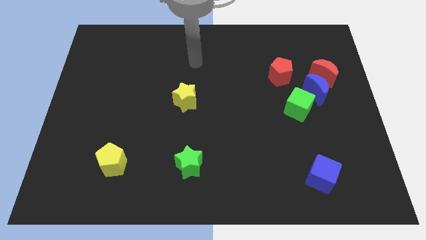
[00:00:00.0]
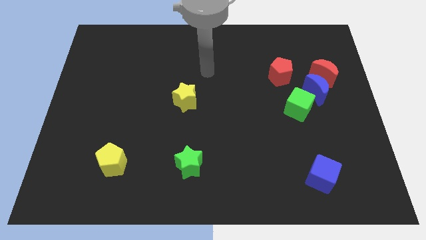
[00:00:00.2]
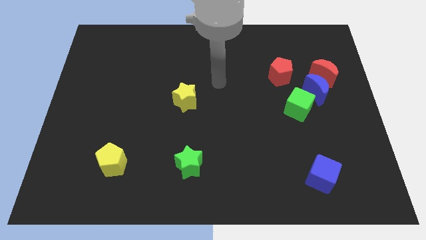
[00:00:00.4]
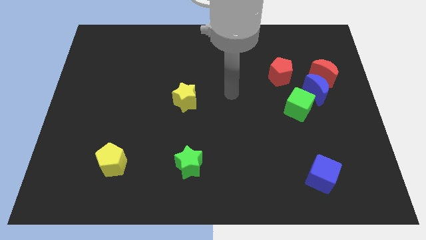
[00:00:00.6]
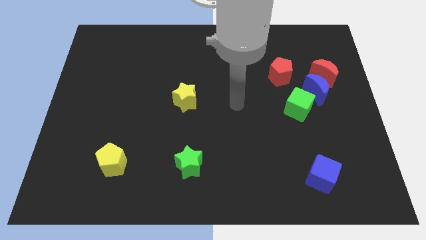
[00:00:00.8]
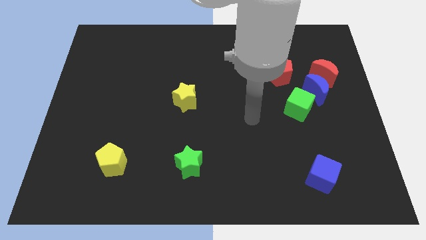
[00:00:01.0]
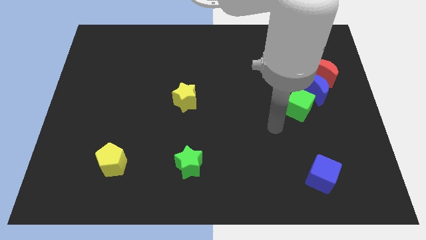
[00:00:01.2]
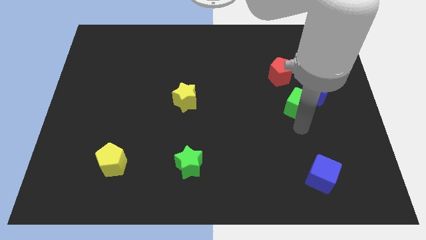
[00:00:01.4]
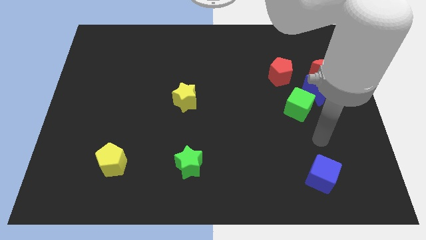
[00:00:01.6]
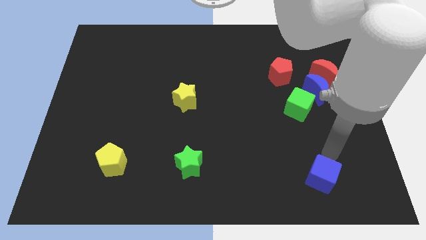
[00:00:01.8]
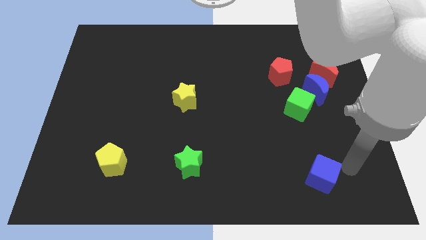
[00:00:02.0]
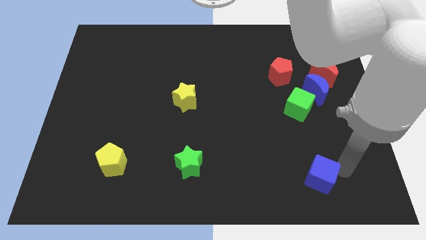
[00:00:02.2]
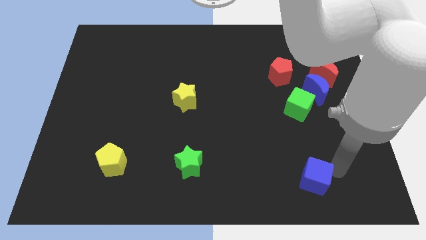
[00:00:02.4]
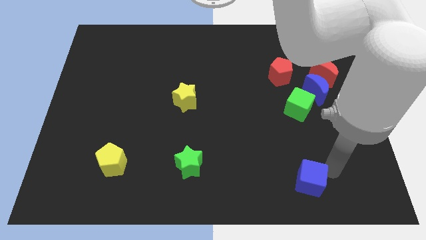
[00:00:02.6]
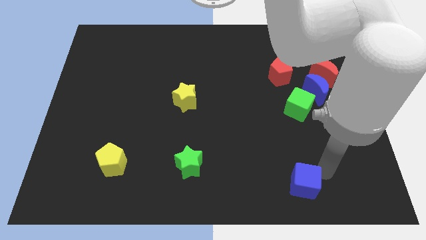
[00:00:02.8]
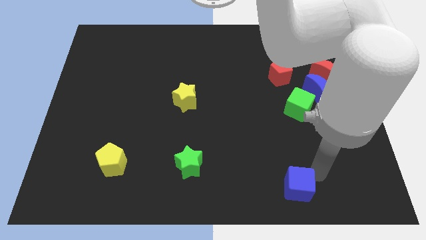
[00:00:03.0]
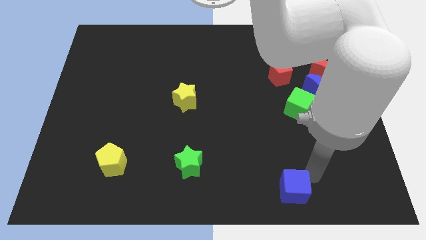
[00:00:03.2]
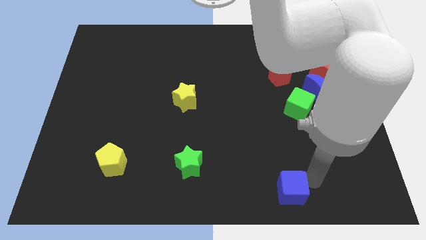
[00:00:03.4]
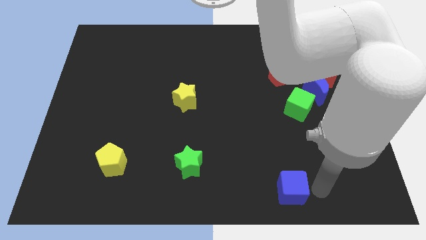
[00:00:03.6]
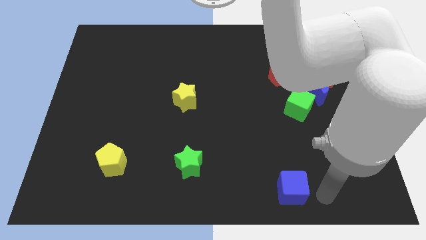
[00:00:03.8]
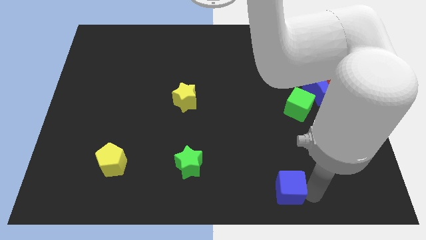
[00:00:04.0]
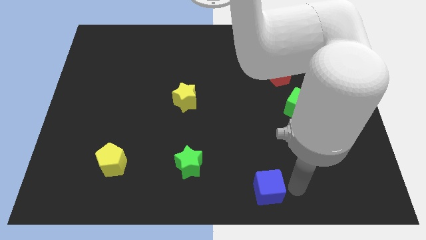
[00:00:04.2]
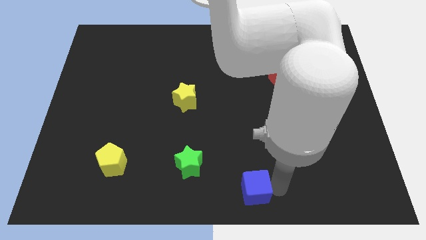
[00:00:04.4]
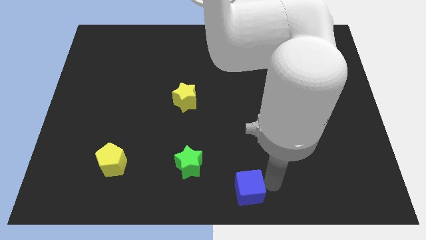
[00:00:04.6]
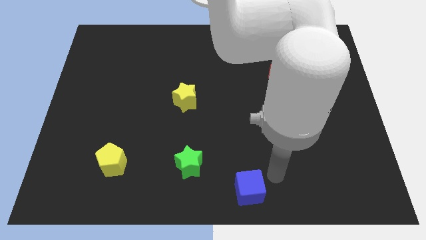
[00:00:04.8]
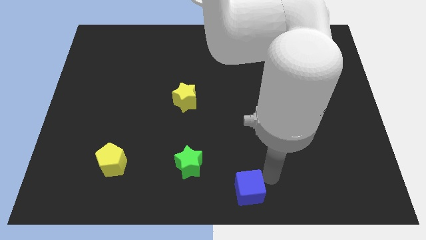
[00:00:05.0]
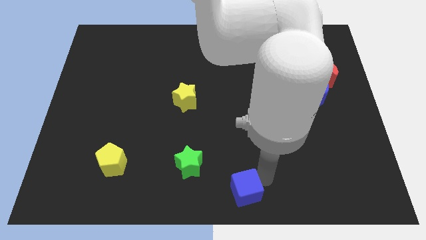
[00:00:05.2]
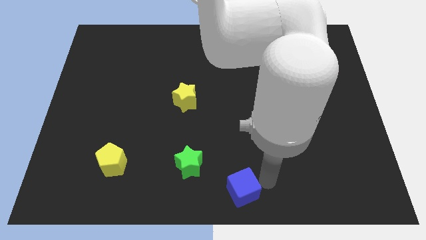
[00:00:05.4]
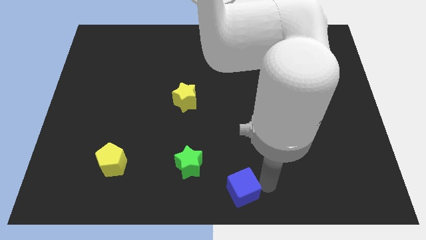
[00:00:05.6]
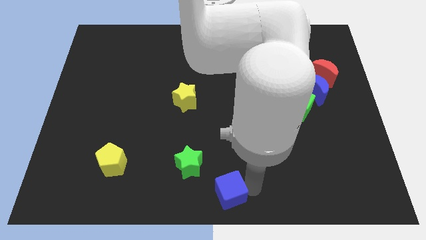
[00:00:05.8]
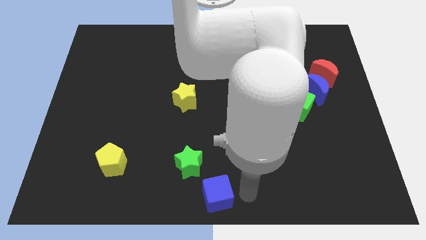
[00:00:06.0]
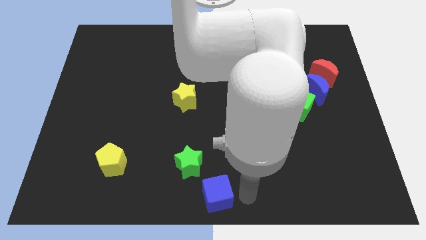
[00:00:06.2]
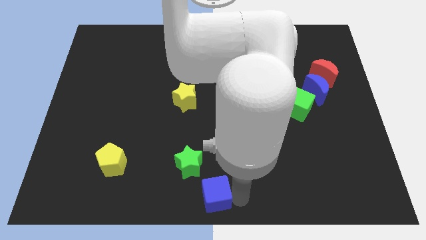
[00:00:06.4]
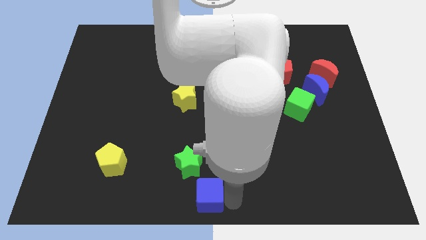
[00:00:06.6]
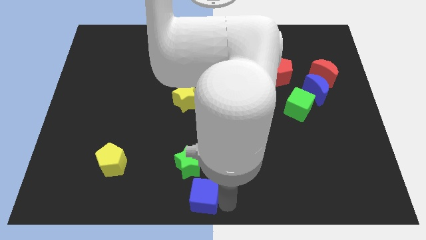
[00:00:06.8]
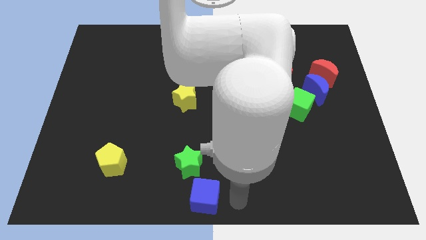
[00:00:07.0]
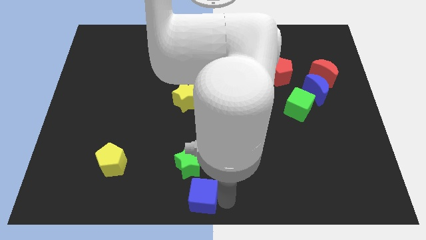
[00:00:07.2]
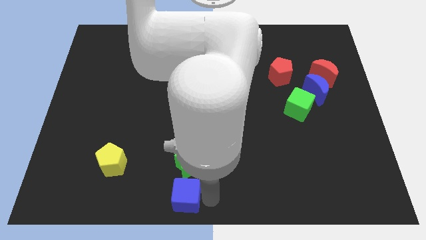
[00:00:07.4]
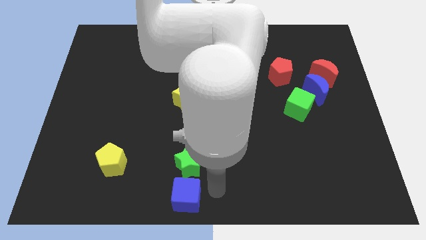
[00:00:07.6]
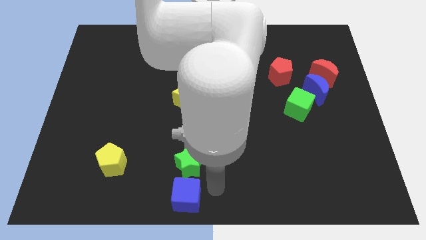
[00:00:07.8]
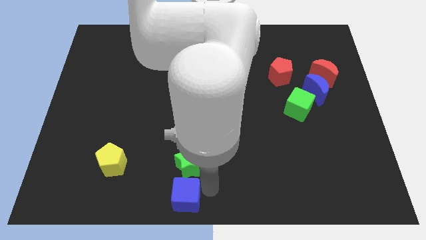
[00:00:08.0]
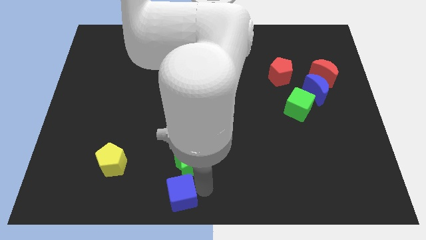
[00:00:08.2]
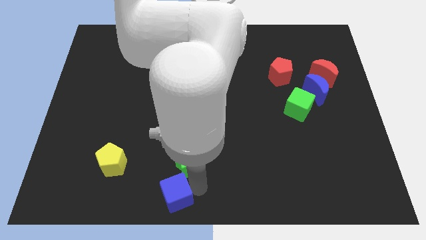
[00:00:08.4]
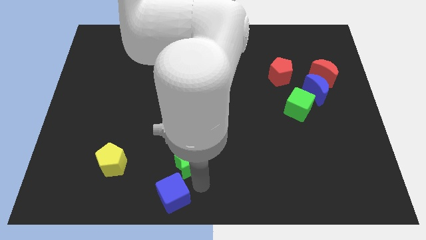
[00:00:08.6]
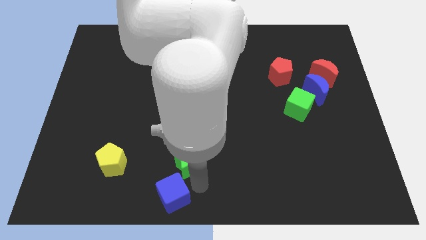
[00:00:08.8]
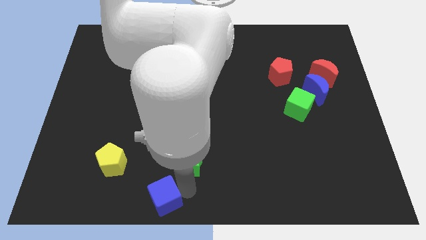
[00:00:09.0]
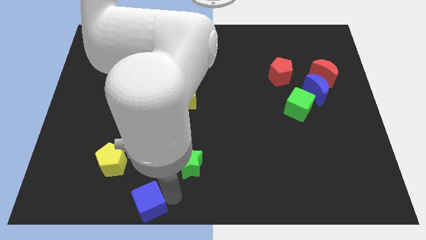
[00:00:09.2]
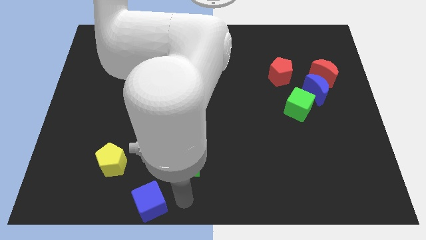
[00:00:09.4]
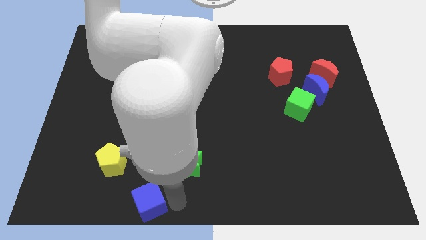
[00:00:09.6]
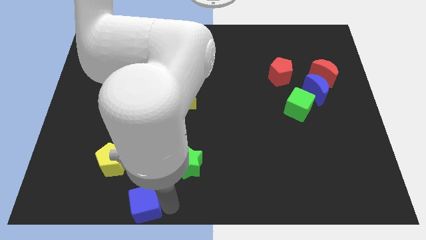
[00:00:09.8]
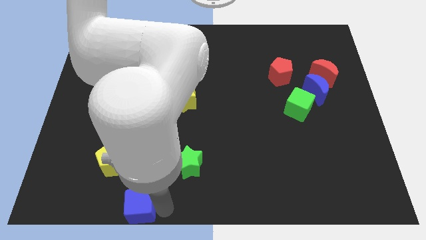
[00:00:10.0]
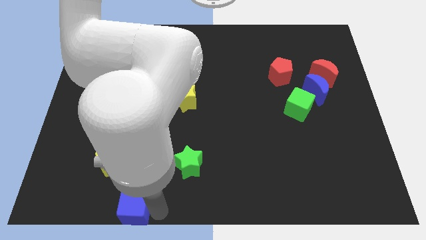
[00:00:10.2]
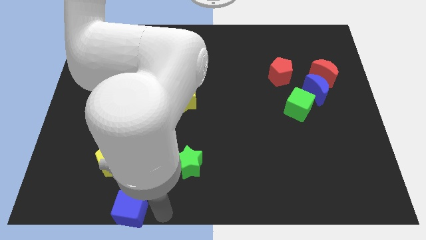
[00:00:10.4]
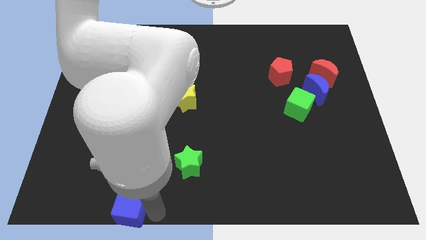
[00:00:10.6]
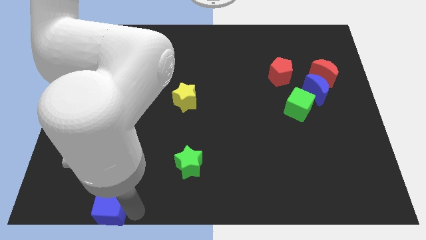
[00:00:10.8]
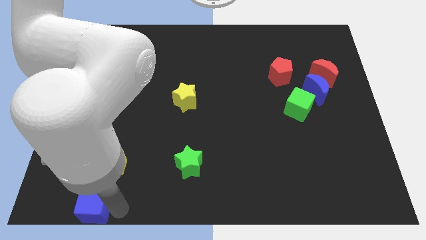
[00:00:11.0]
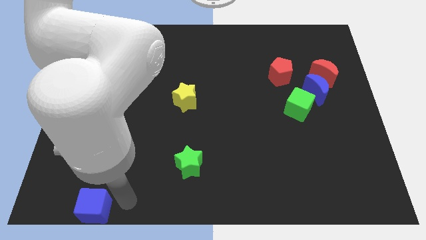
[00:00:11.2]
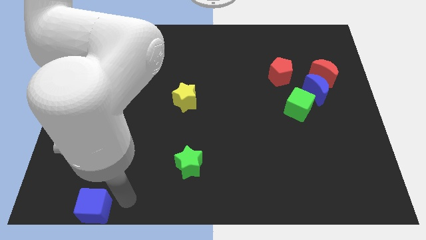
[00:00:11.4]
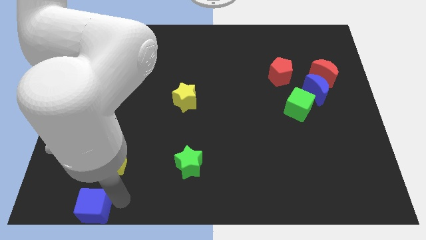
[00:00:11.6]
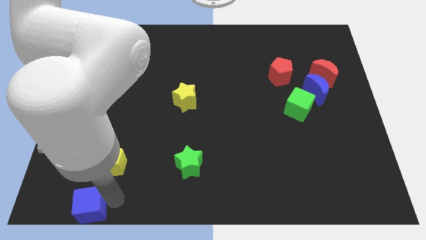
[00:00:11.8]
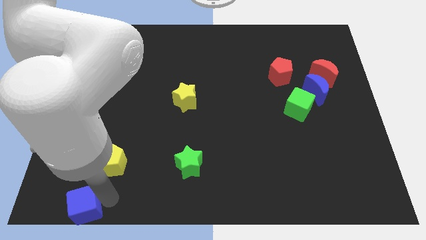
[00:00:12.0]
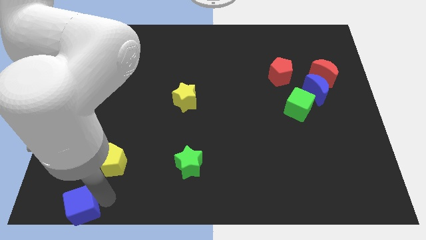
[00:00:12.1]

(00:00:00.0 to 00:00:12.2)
slide the blue cube to the bottom left corner
